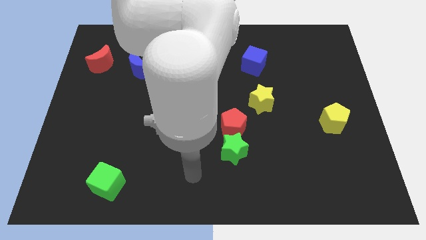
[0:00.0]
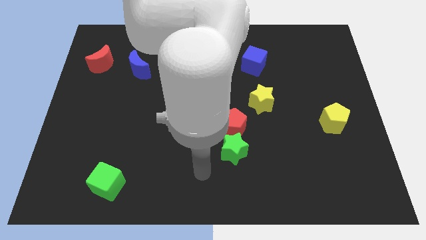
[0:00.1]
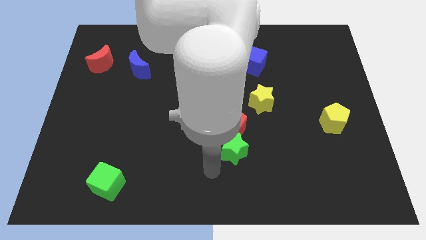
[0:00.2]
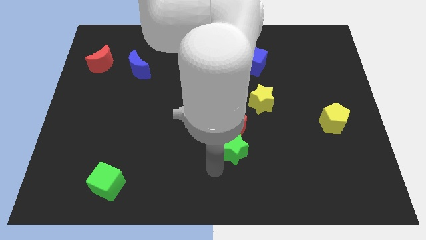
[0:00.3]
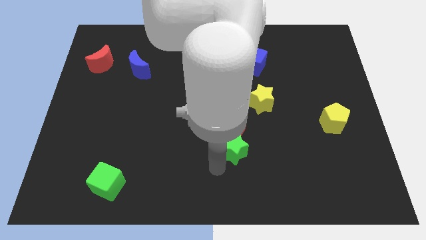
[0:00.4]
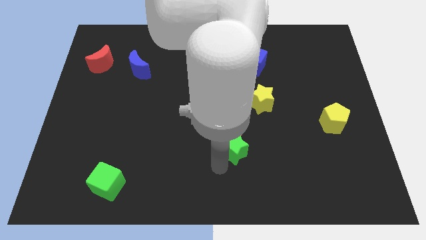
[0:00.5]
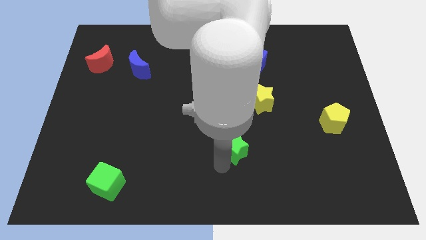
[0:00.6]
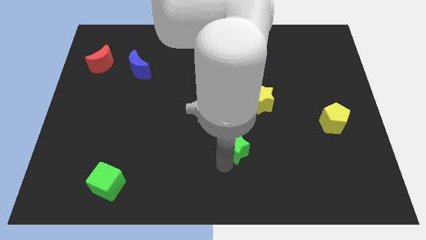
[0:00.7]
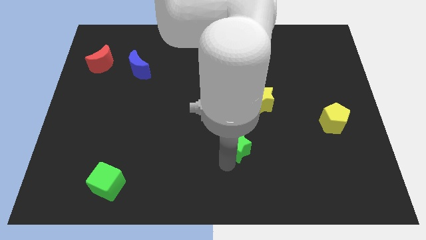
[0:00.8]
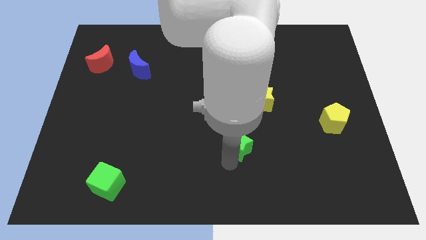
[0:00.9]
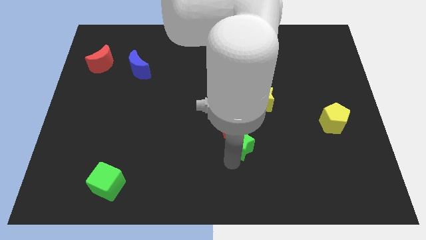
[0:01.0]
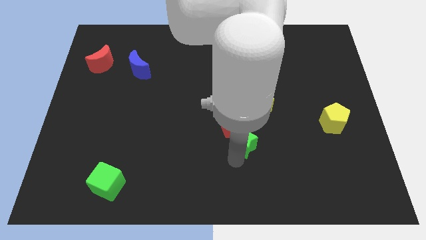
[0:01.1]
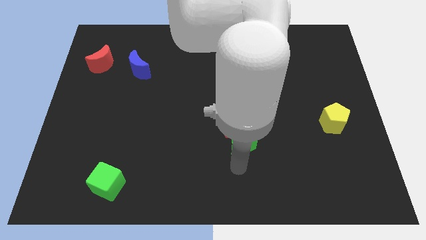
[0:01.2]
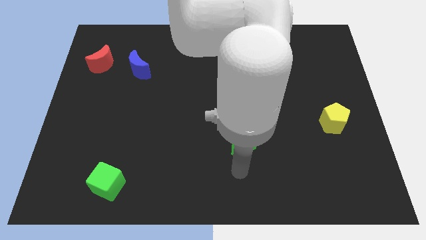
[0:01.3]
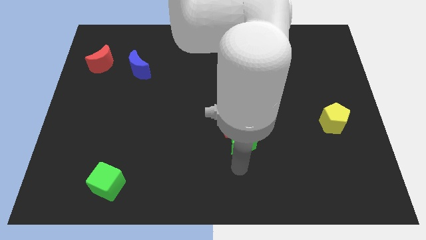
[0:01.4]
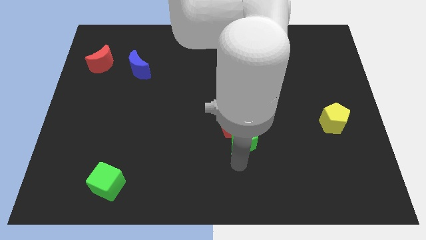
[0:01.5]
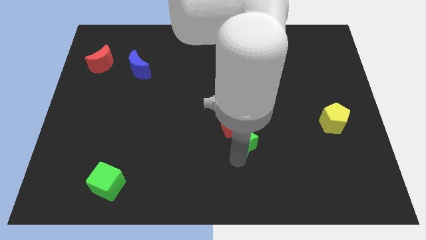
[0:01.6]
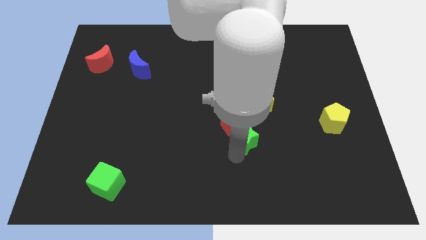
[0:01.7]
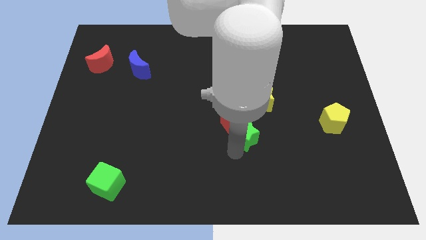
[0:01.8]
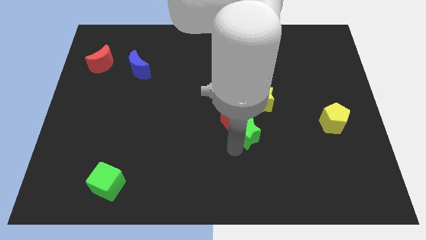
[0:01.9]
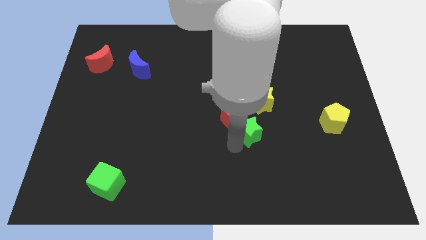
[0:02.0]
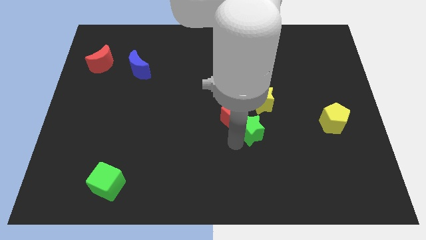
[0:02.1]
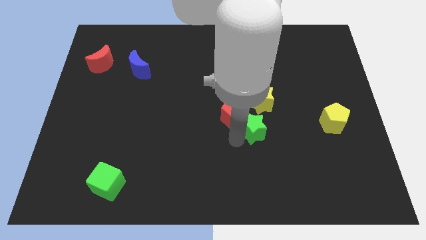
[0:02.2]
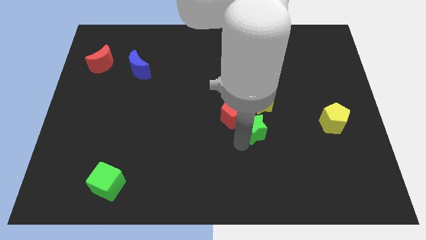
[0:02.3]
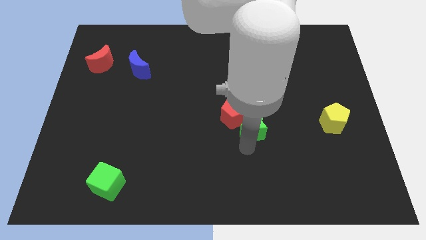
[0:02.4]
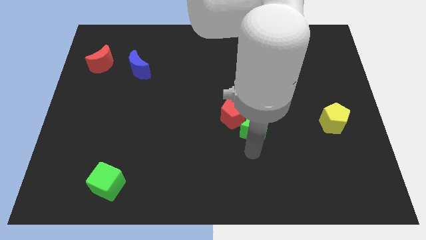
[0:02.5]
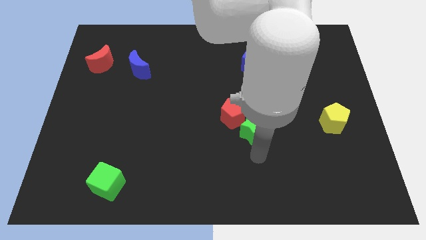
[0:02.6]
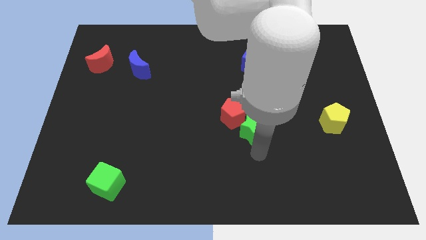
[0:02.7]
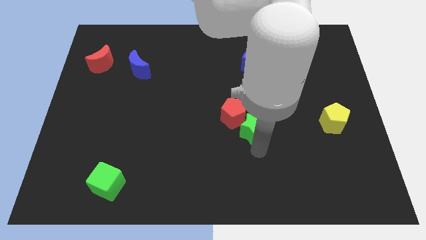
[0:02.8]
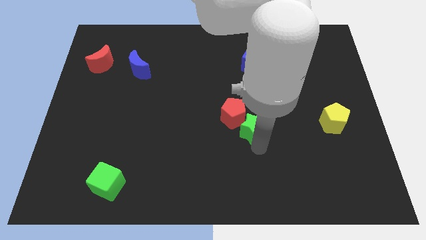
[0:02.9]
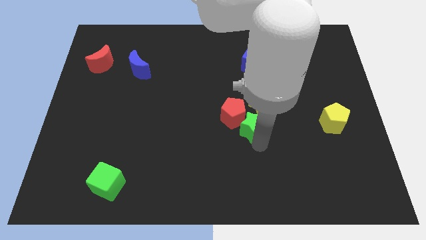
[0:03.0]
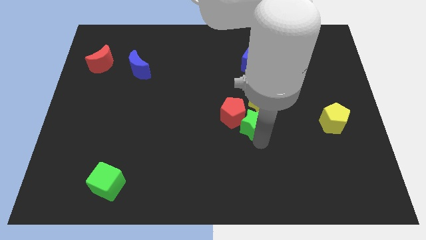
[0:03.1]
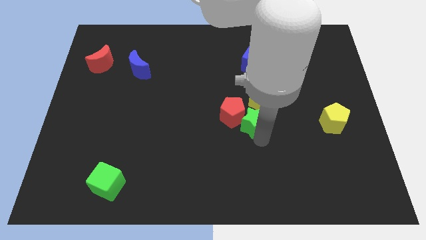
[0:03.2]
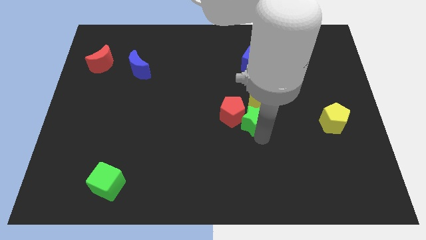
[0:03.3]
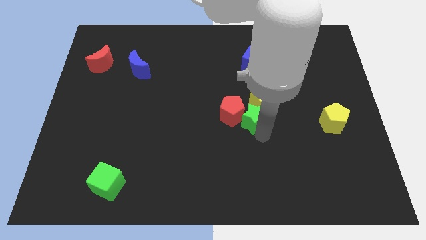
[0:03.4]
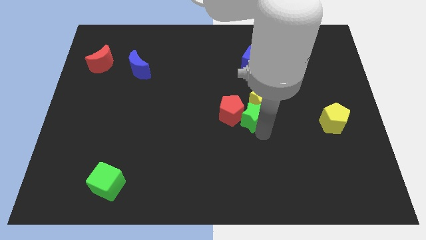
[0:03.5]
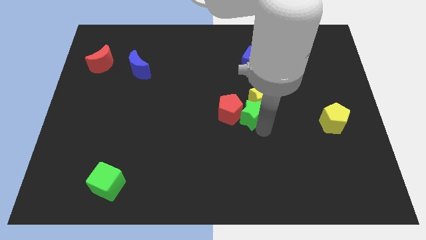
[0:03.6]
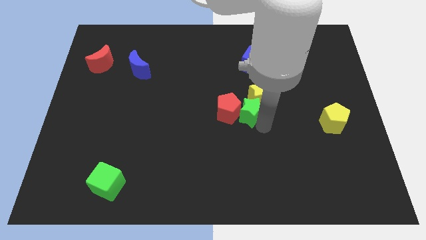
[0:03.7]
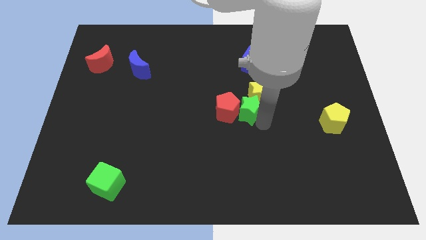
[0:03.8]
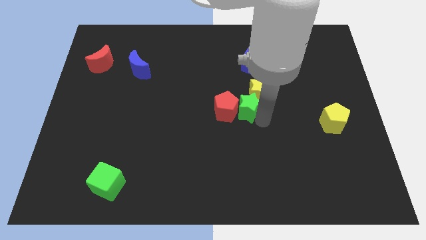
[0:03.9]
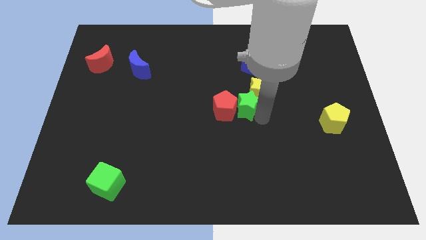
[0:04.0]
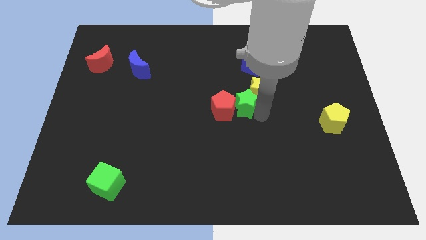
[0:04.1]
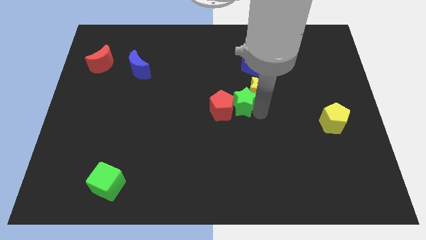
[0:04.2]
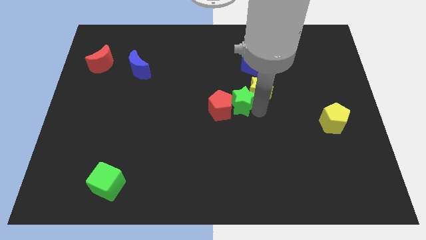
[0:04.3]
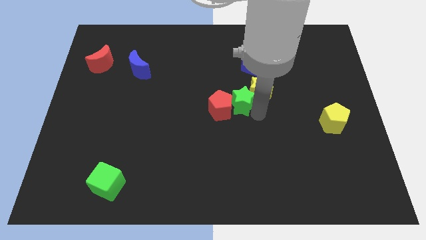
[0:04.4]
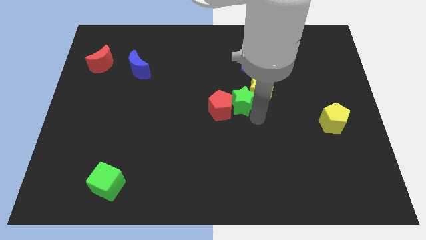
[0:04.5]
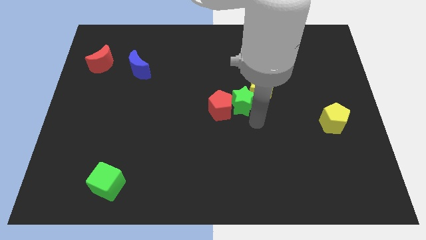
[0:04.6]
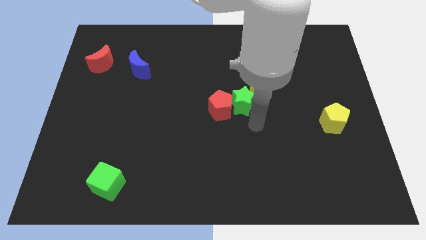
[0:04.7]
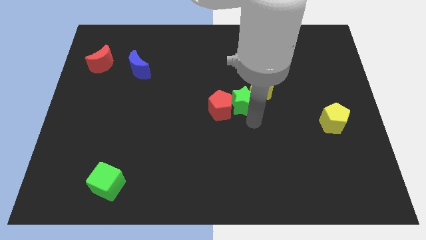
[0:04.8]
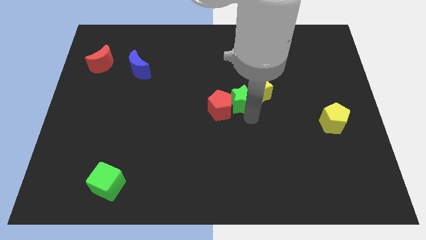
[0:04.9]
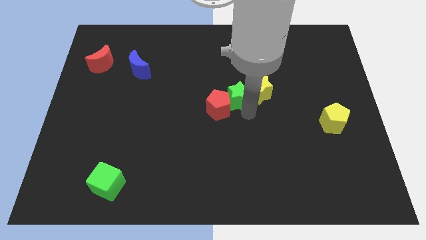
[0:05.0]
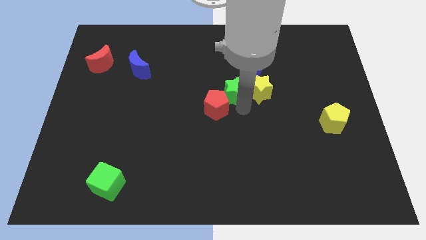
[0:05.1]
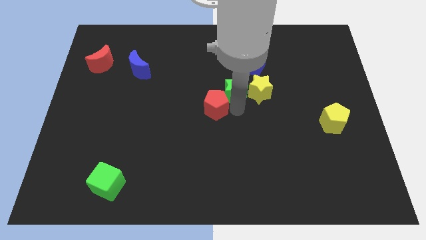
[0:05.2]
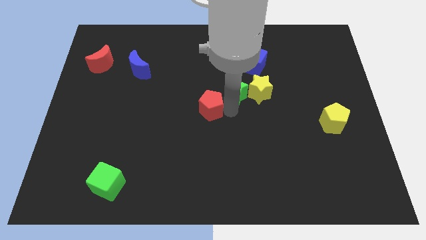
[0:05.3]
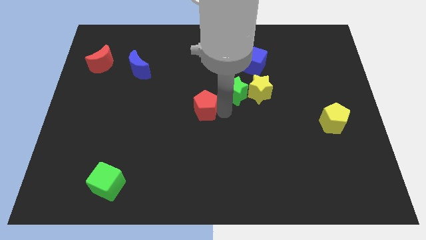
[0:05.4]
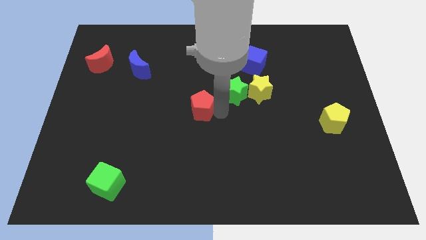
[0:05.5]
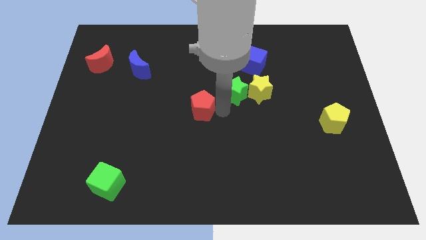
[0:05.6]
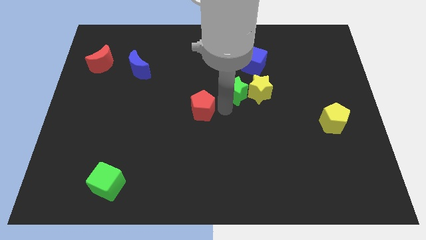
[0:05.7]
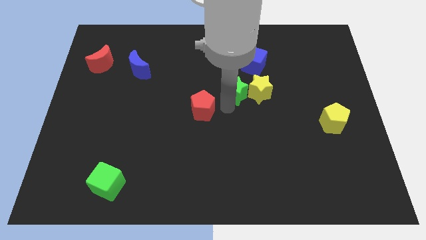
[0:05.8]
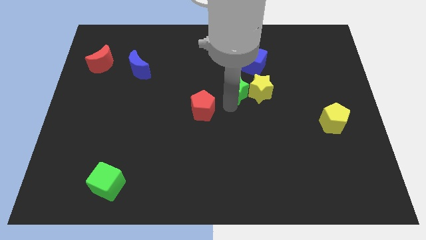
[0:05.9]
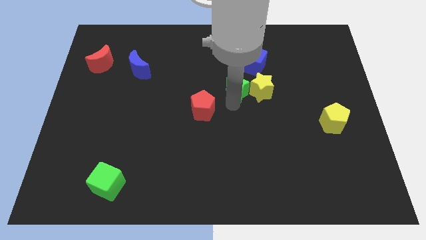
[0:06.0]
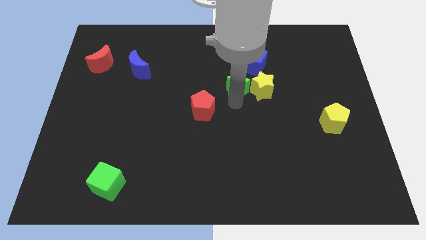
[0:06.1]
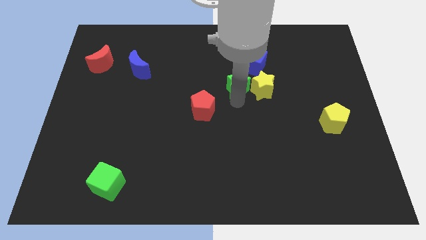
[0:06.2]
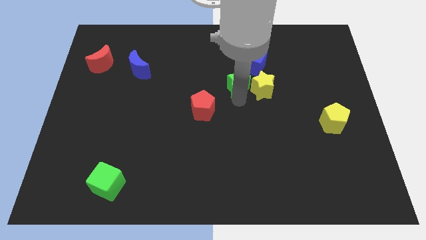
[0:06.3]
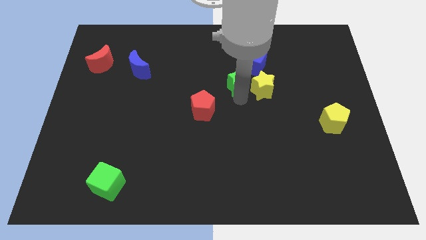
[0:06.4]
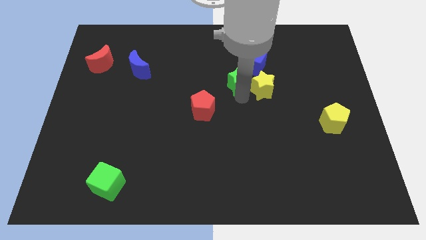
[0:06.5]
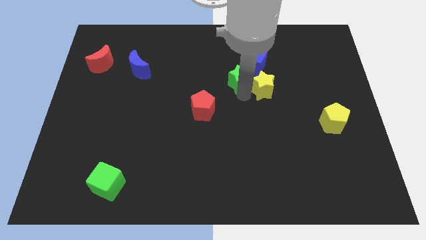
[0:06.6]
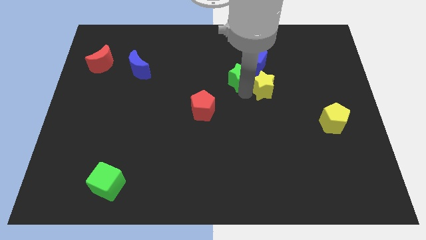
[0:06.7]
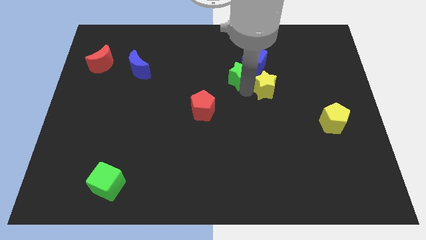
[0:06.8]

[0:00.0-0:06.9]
put the green star towards the blue cube

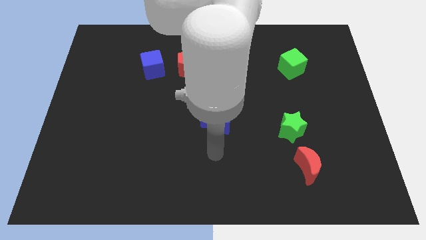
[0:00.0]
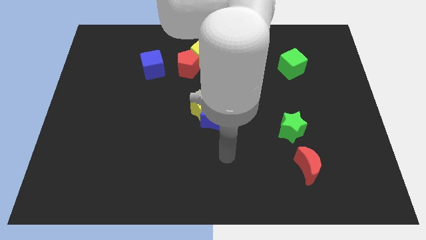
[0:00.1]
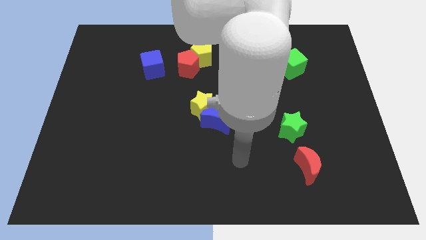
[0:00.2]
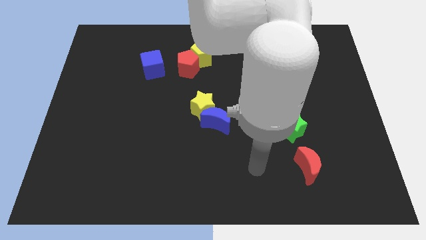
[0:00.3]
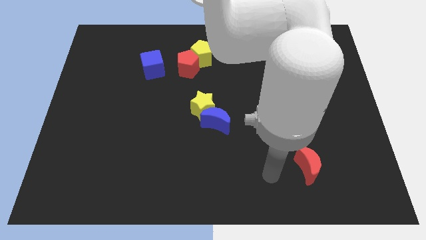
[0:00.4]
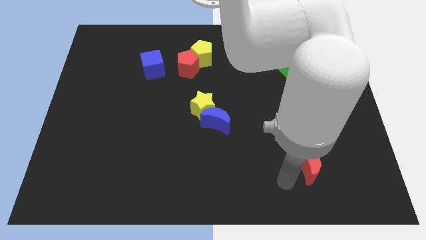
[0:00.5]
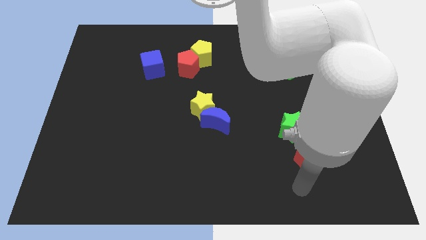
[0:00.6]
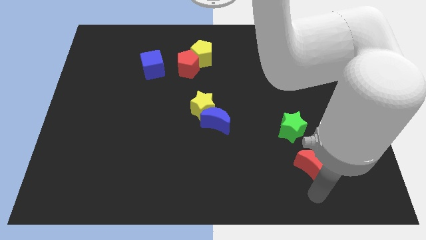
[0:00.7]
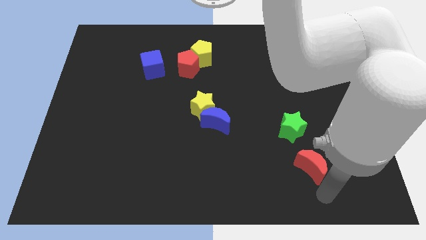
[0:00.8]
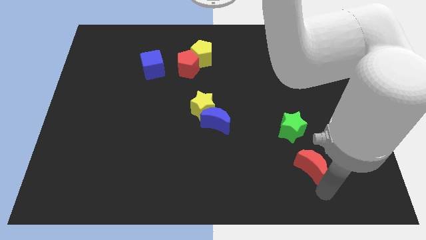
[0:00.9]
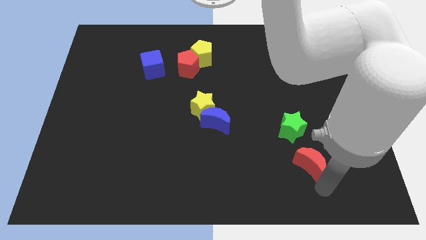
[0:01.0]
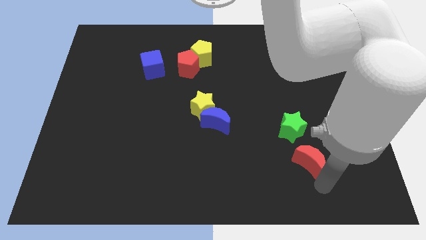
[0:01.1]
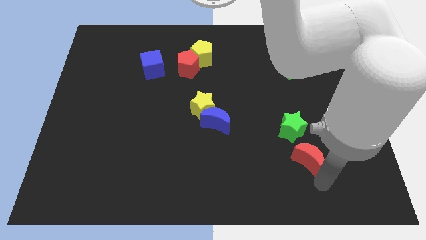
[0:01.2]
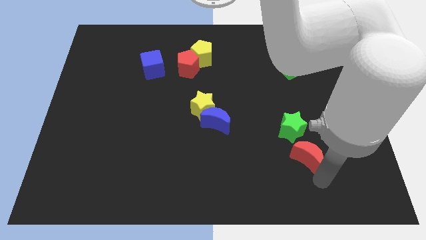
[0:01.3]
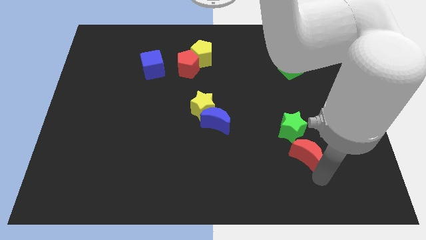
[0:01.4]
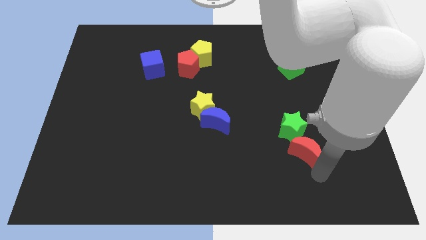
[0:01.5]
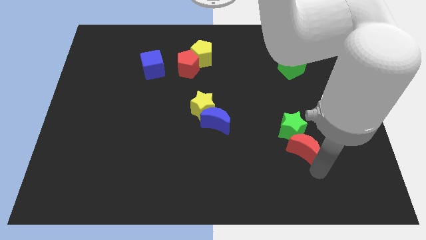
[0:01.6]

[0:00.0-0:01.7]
push the red moon towards the green star
